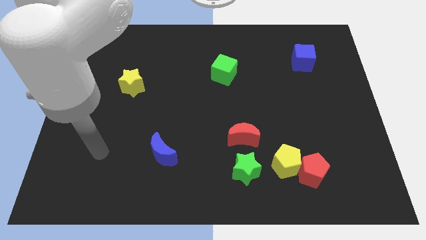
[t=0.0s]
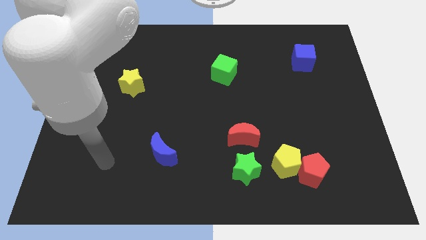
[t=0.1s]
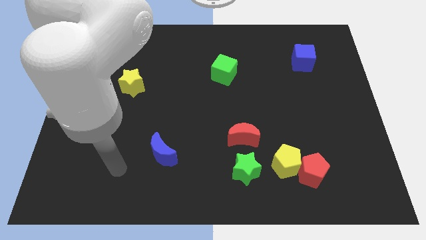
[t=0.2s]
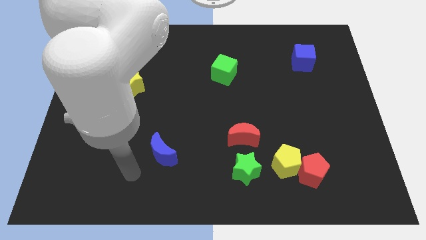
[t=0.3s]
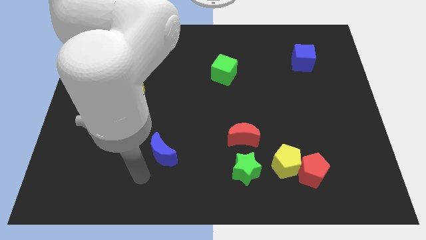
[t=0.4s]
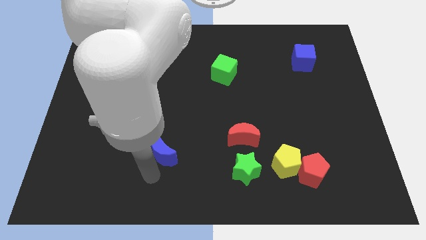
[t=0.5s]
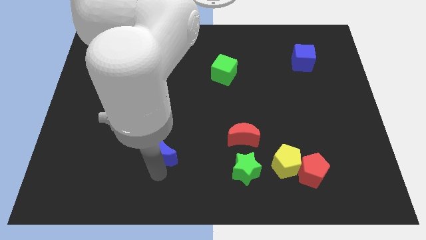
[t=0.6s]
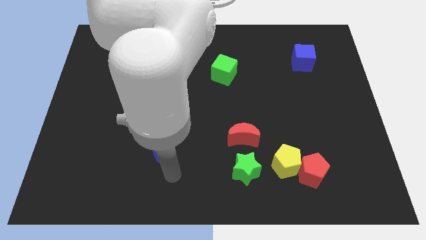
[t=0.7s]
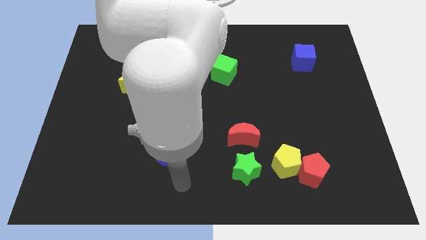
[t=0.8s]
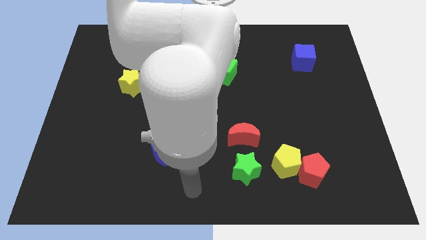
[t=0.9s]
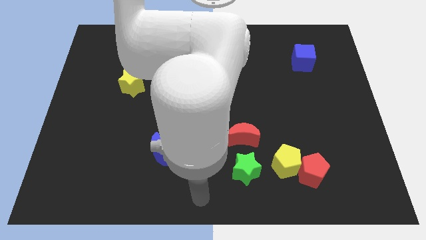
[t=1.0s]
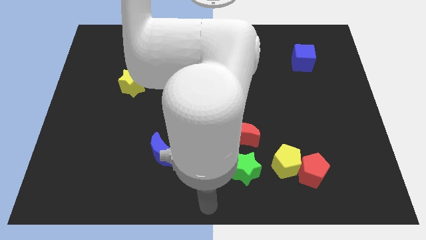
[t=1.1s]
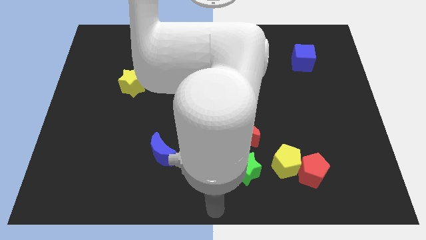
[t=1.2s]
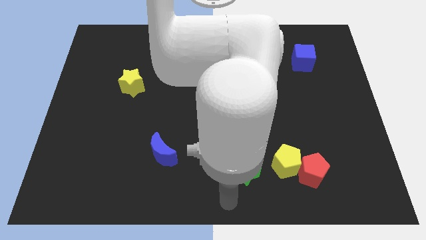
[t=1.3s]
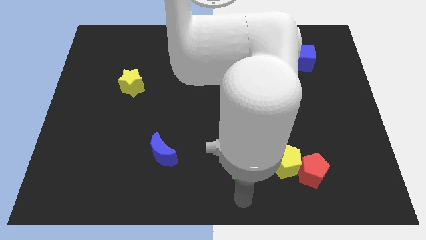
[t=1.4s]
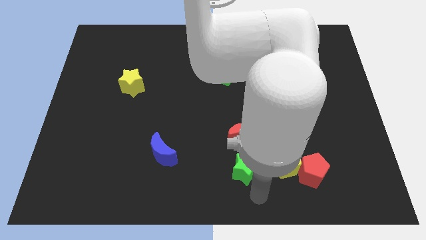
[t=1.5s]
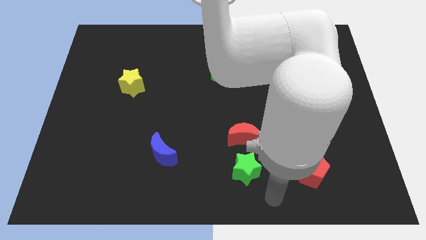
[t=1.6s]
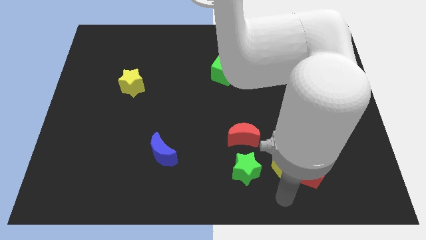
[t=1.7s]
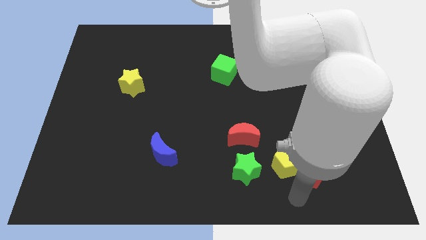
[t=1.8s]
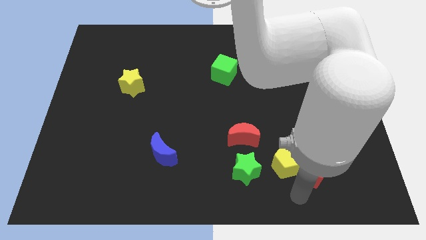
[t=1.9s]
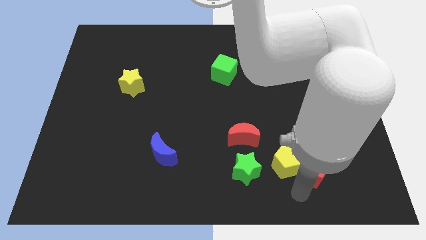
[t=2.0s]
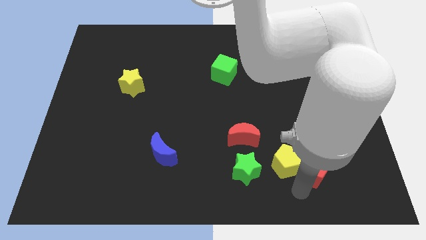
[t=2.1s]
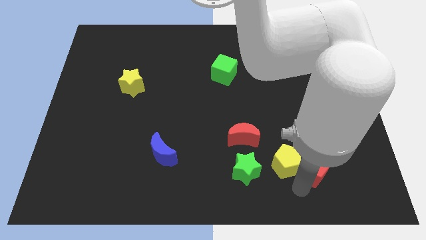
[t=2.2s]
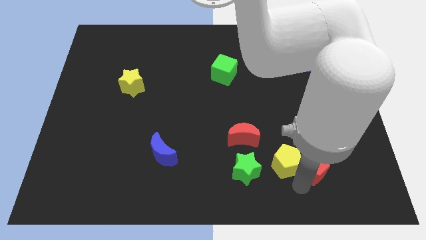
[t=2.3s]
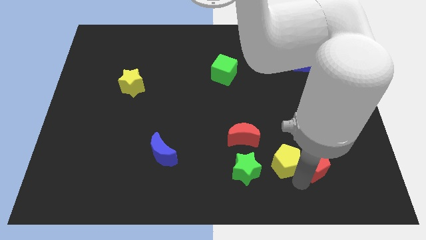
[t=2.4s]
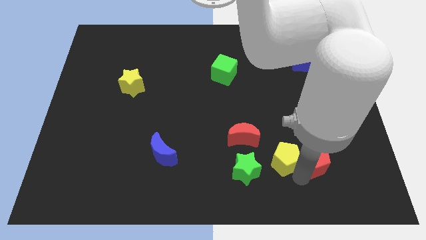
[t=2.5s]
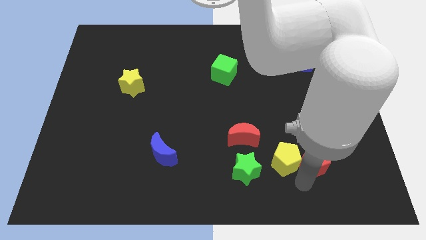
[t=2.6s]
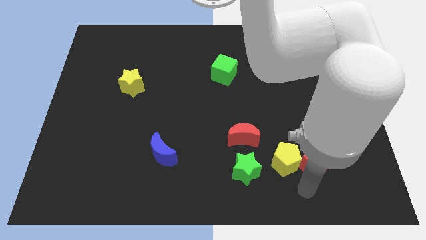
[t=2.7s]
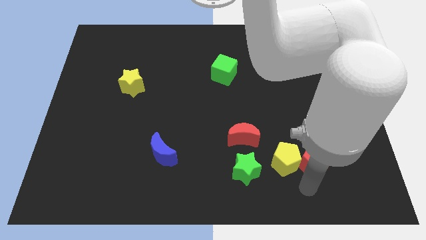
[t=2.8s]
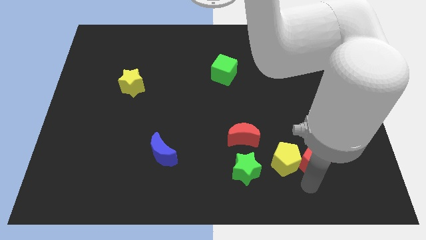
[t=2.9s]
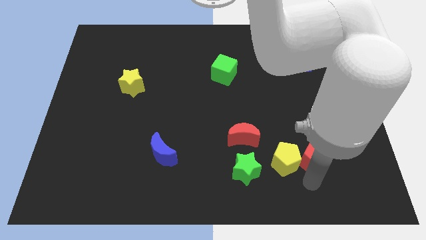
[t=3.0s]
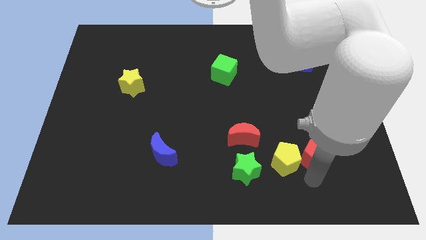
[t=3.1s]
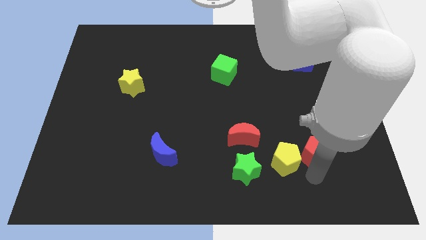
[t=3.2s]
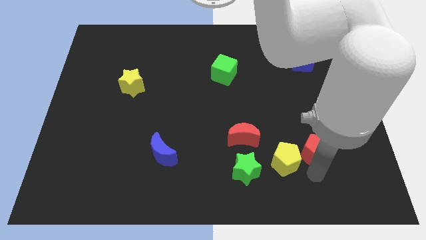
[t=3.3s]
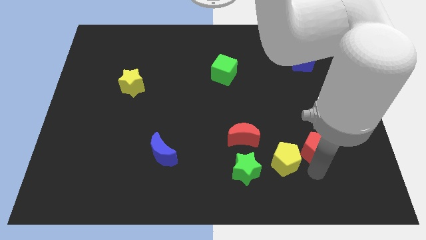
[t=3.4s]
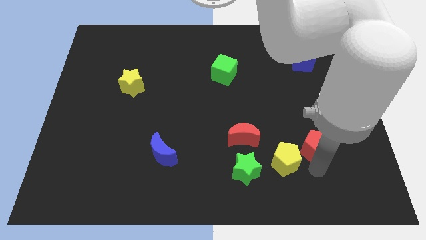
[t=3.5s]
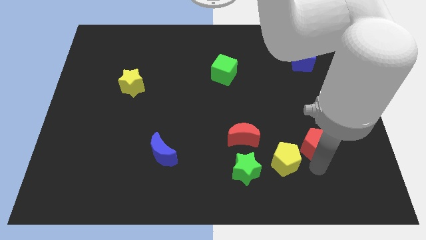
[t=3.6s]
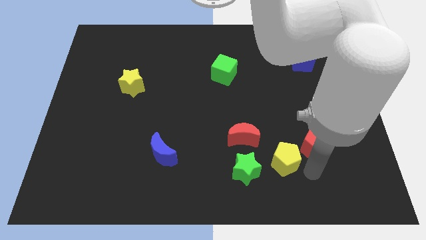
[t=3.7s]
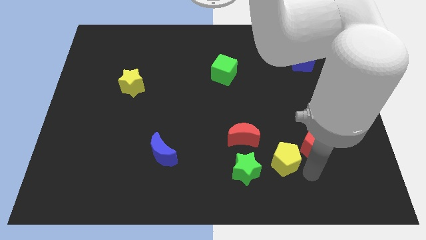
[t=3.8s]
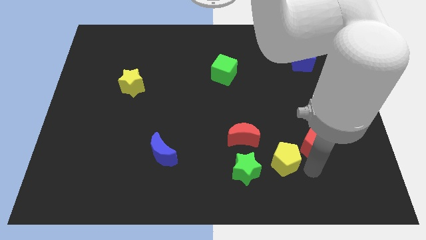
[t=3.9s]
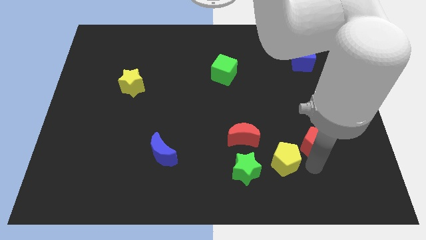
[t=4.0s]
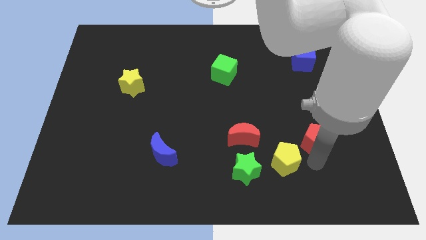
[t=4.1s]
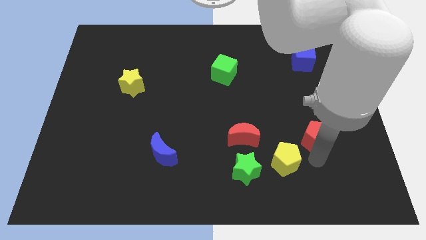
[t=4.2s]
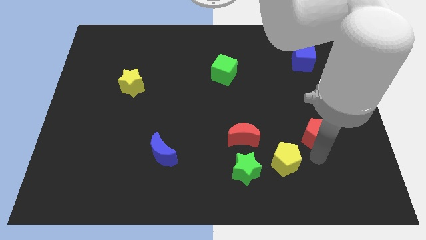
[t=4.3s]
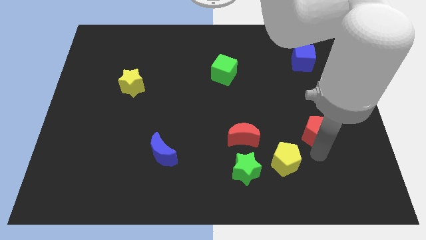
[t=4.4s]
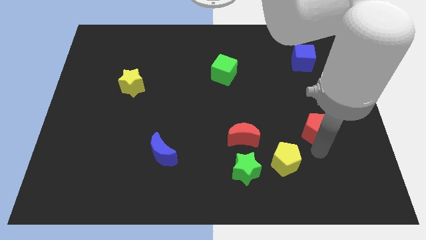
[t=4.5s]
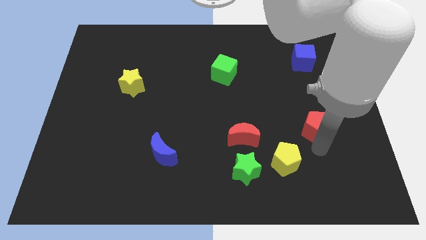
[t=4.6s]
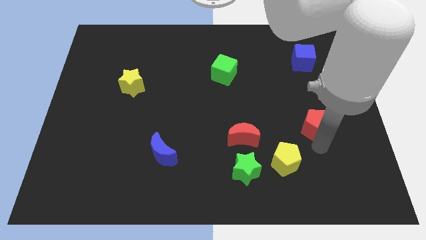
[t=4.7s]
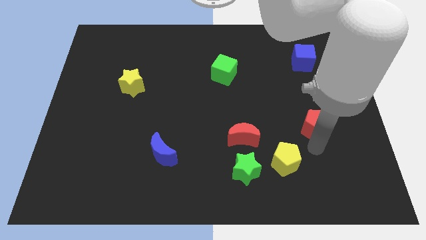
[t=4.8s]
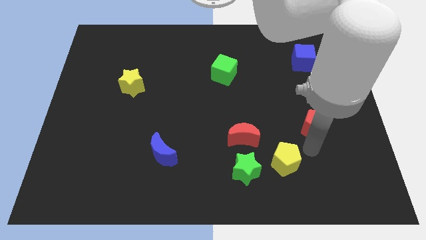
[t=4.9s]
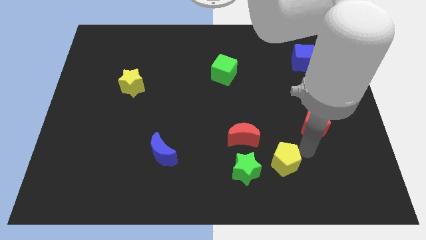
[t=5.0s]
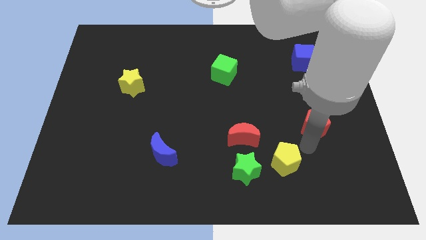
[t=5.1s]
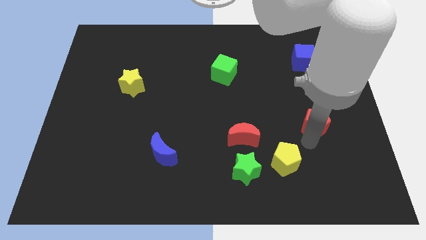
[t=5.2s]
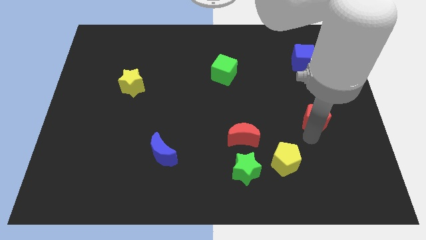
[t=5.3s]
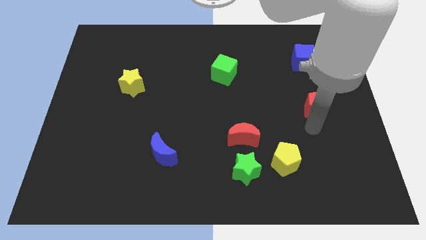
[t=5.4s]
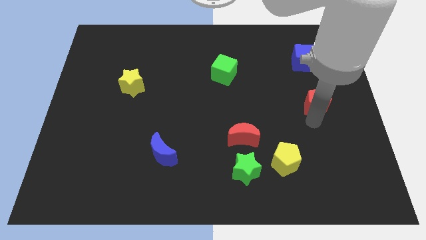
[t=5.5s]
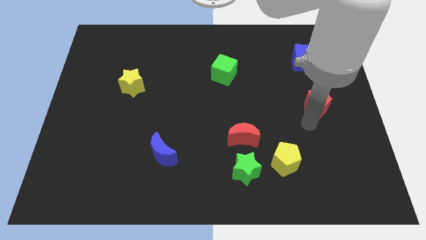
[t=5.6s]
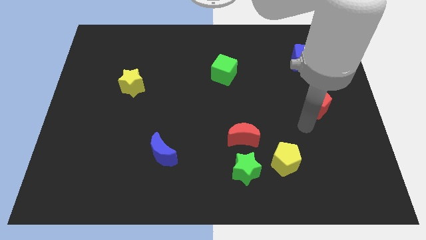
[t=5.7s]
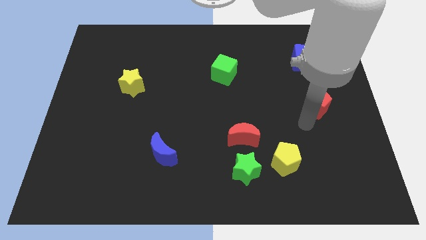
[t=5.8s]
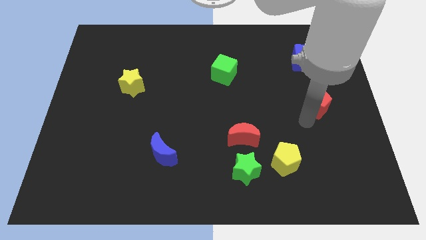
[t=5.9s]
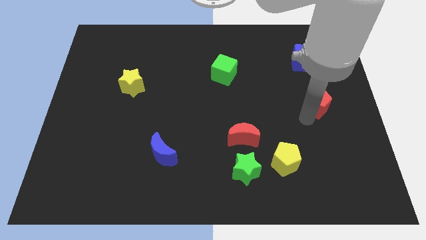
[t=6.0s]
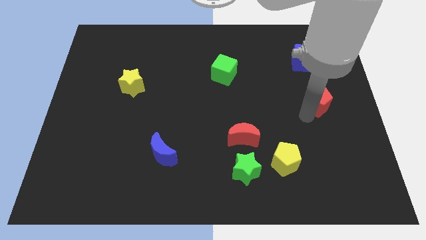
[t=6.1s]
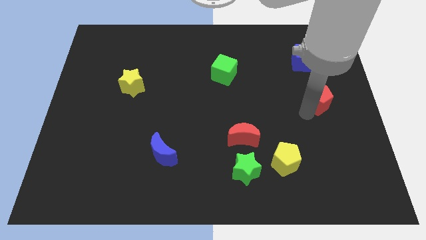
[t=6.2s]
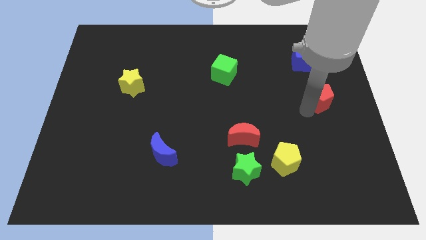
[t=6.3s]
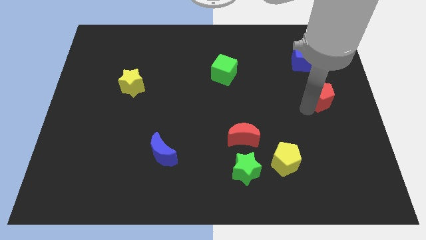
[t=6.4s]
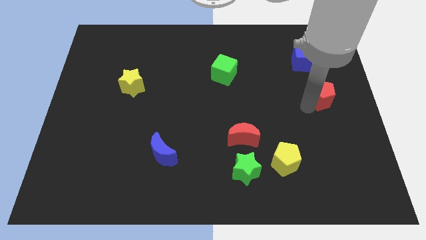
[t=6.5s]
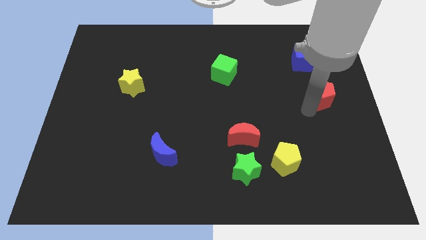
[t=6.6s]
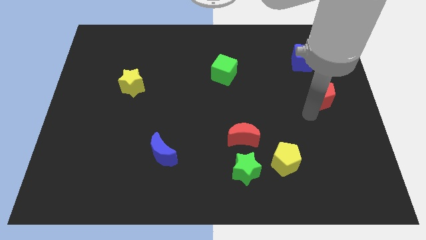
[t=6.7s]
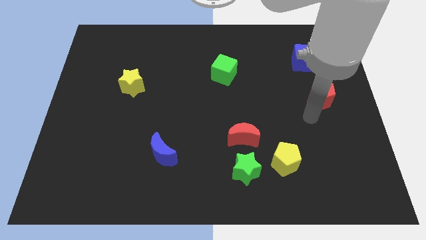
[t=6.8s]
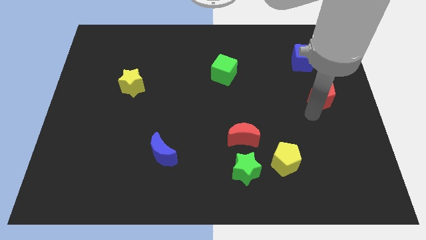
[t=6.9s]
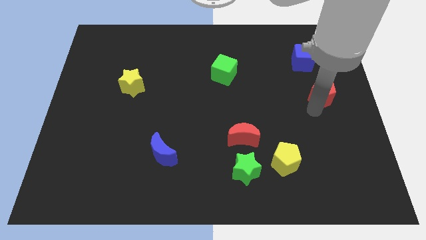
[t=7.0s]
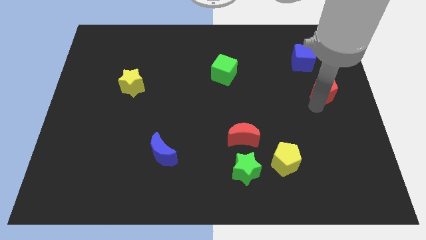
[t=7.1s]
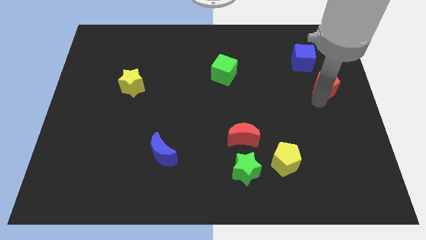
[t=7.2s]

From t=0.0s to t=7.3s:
push the red pentagon to the bottom right of the blue cube

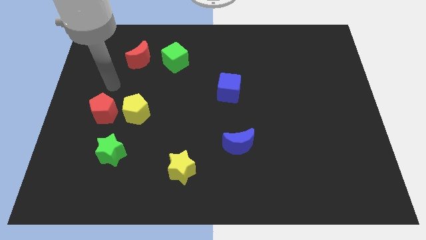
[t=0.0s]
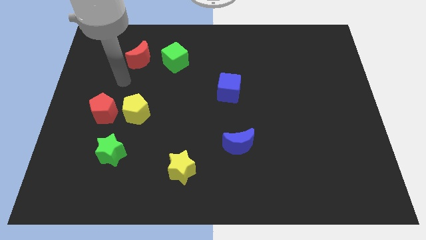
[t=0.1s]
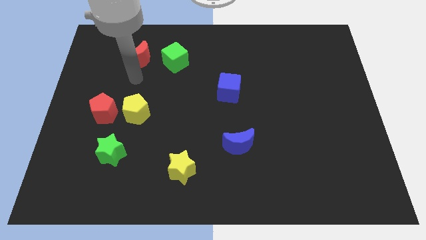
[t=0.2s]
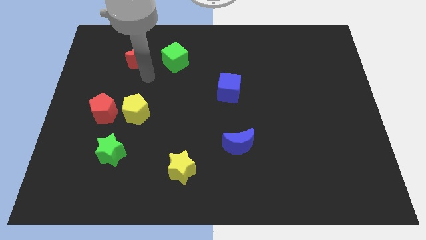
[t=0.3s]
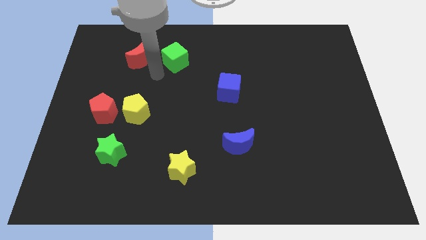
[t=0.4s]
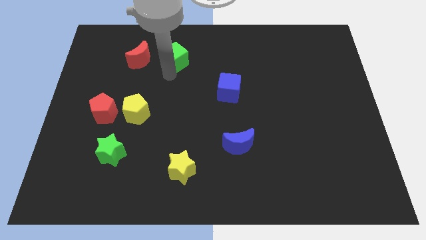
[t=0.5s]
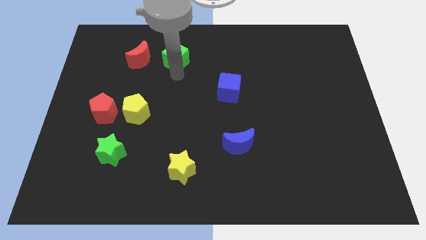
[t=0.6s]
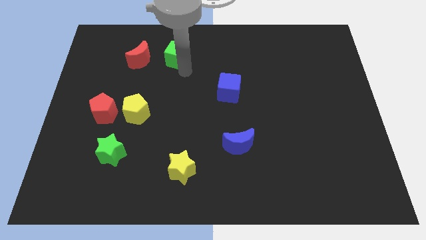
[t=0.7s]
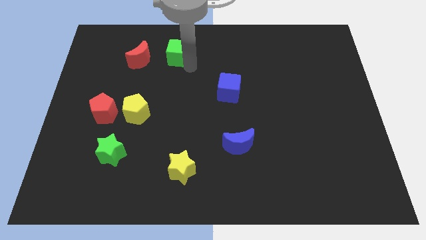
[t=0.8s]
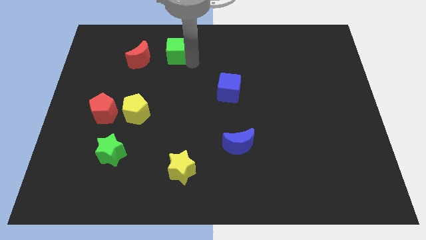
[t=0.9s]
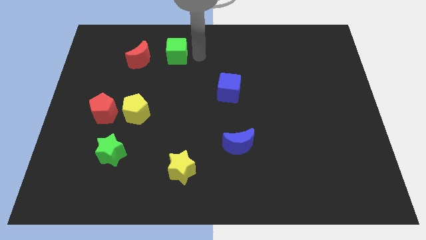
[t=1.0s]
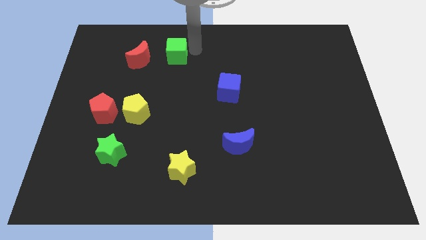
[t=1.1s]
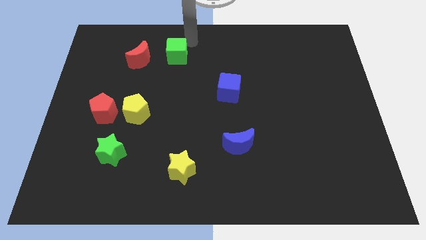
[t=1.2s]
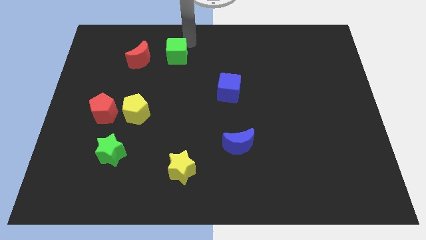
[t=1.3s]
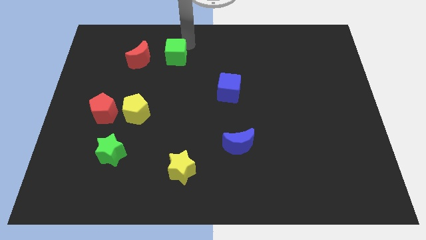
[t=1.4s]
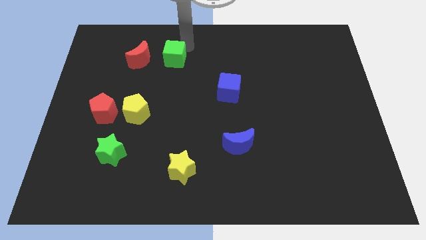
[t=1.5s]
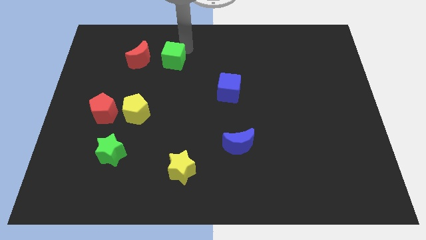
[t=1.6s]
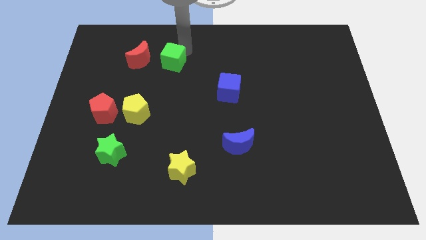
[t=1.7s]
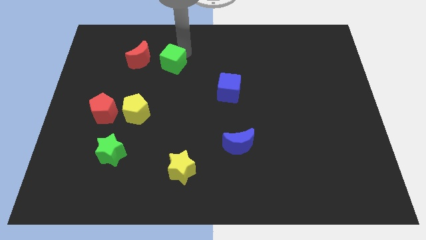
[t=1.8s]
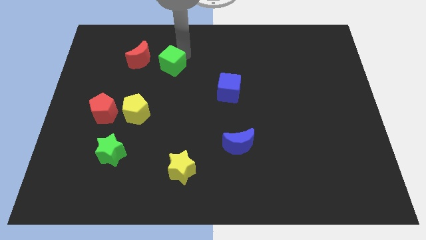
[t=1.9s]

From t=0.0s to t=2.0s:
push the green cube to the bottom right of the red moon
